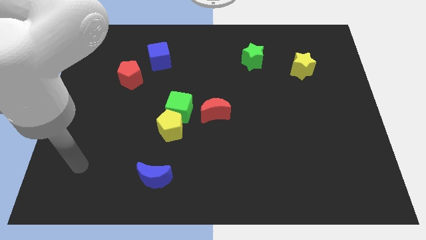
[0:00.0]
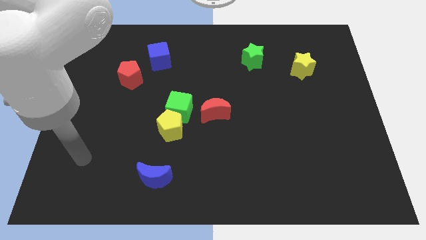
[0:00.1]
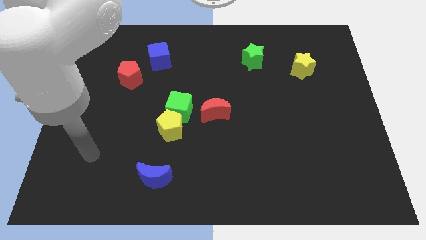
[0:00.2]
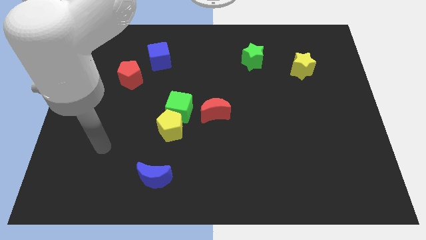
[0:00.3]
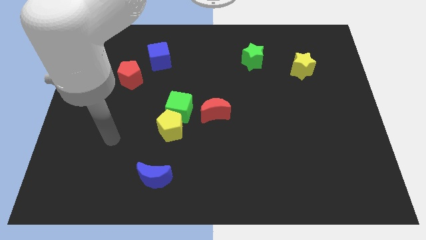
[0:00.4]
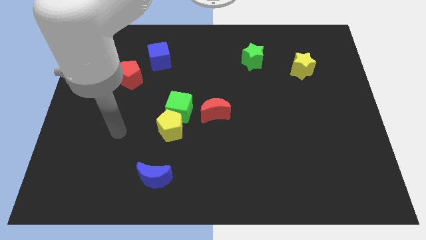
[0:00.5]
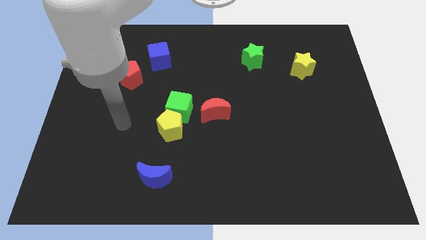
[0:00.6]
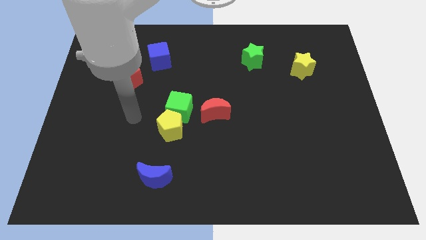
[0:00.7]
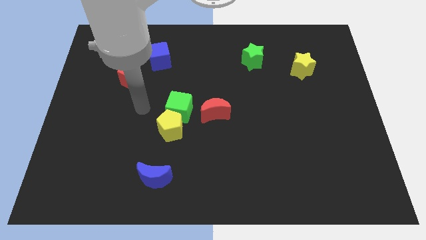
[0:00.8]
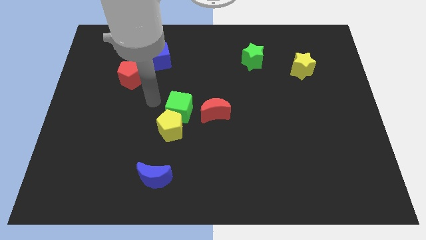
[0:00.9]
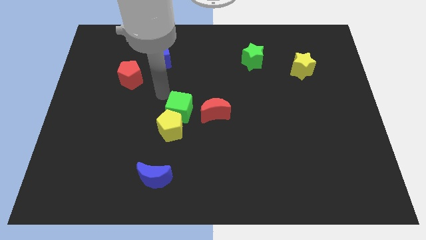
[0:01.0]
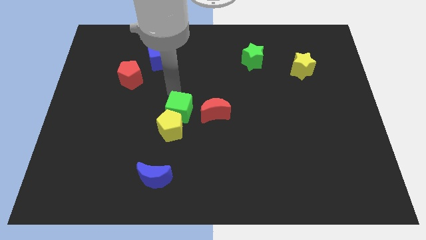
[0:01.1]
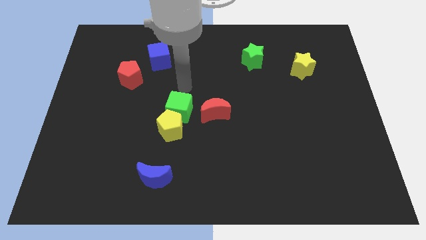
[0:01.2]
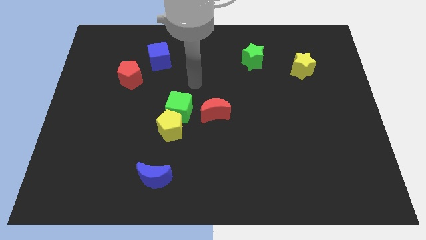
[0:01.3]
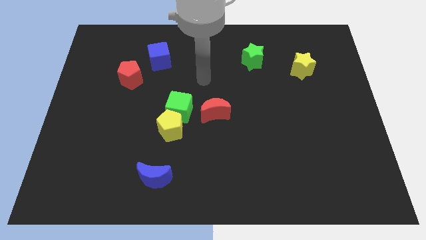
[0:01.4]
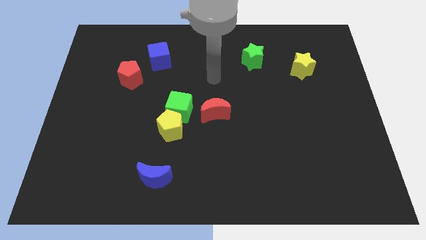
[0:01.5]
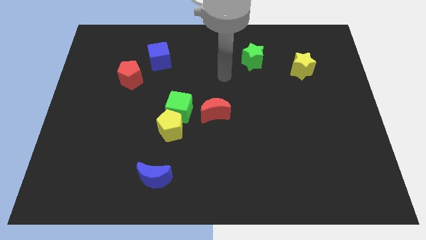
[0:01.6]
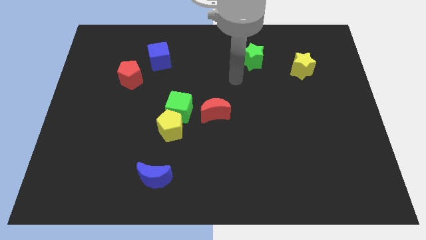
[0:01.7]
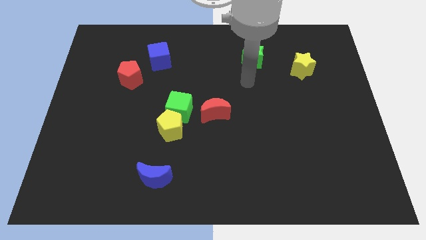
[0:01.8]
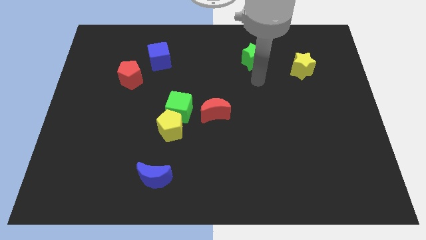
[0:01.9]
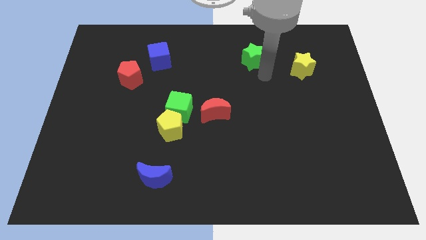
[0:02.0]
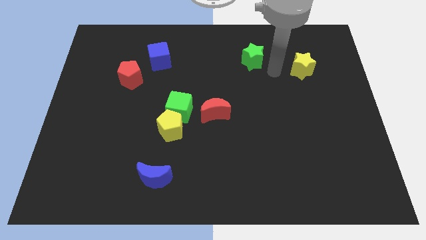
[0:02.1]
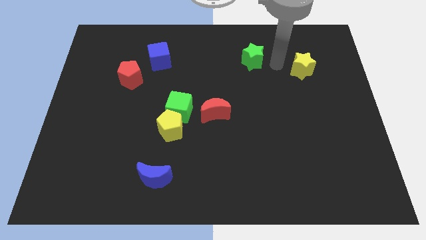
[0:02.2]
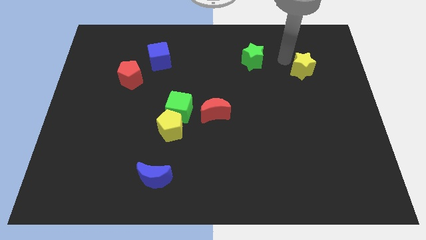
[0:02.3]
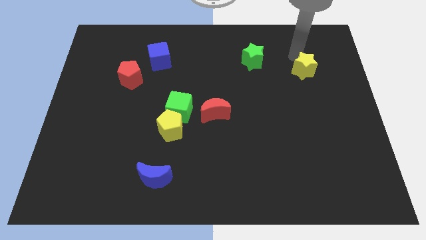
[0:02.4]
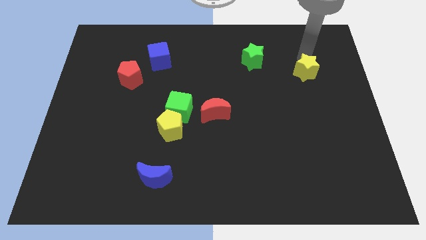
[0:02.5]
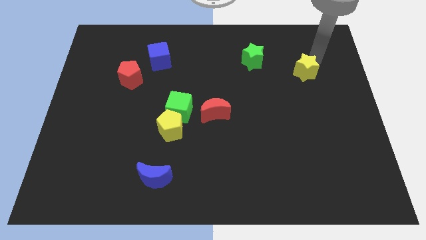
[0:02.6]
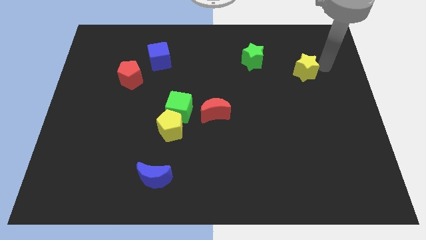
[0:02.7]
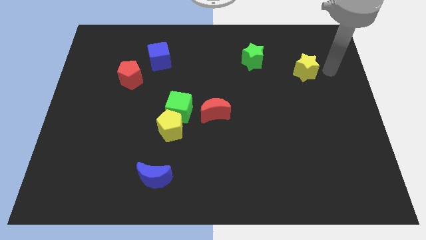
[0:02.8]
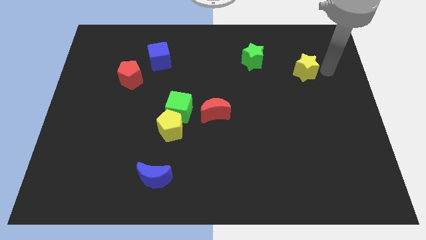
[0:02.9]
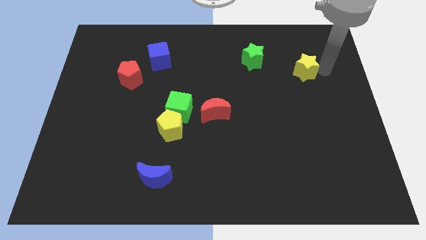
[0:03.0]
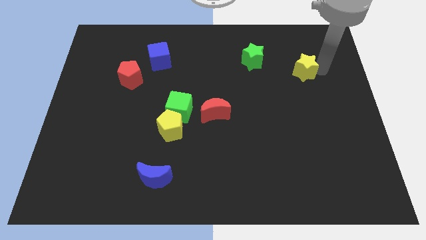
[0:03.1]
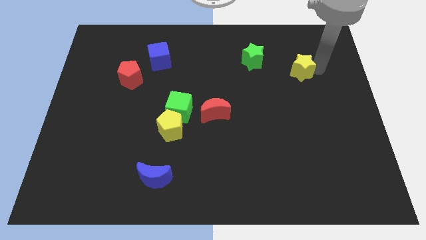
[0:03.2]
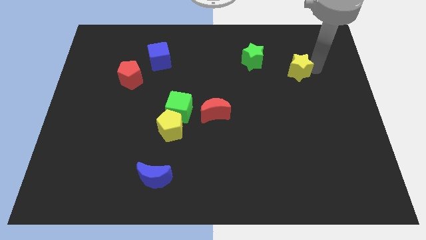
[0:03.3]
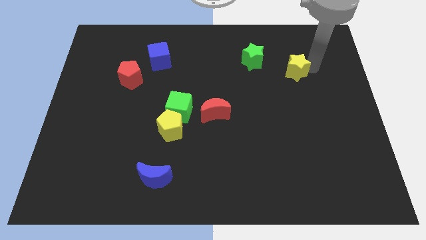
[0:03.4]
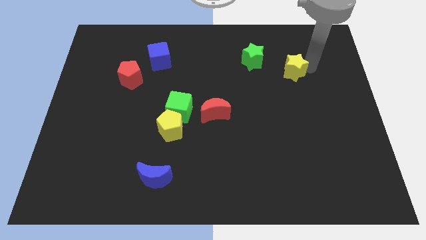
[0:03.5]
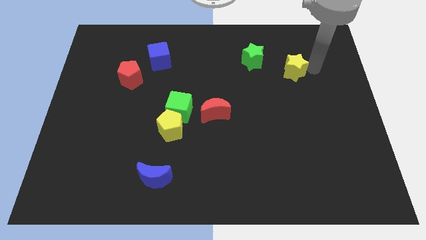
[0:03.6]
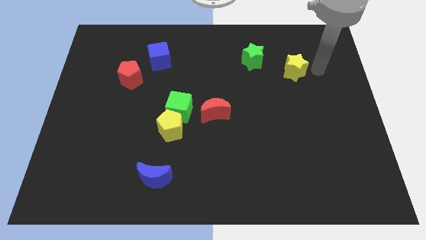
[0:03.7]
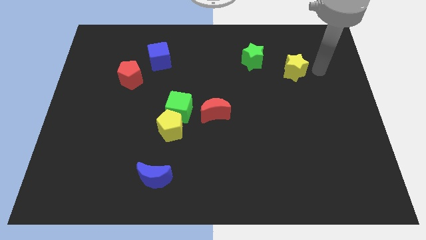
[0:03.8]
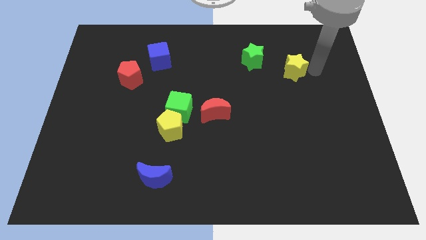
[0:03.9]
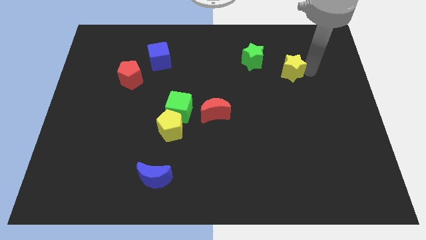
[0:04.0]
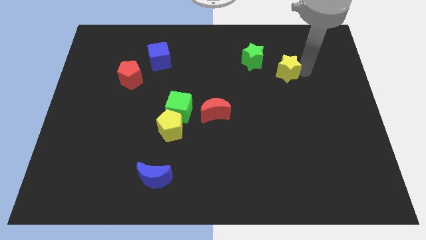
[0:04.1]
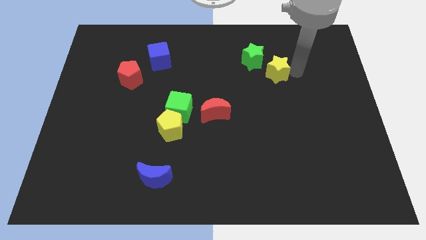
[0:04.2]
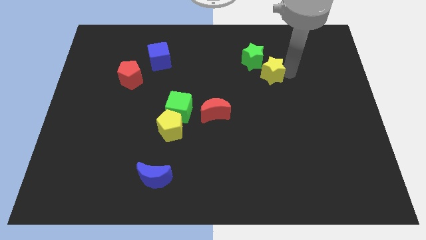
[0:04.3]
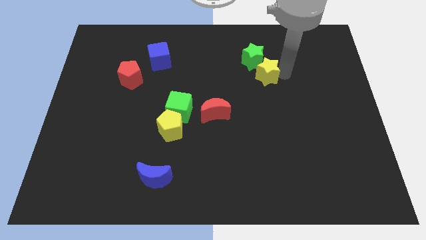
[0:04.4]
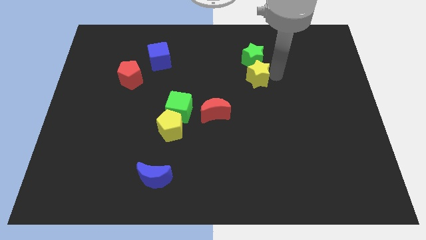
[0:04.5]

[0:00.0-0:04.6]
put the yellow star to the bottom left of the green star

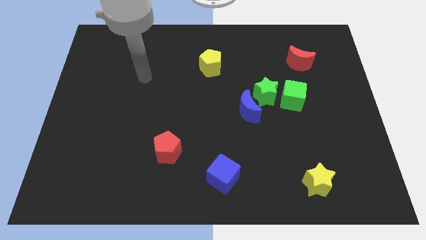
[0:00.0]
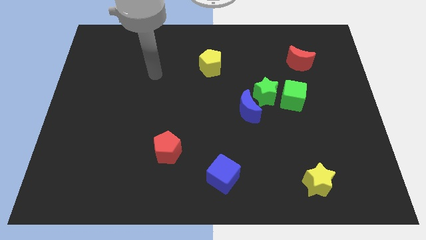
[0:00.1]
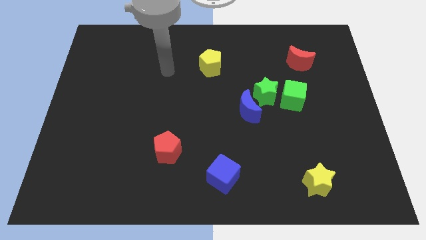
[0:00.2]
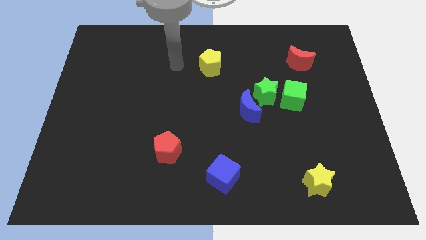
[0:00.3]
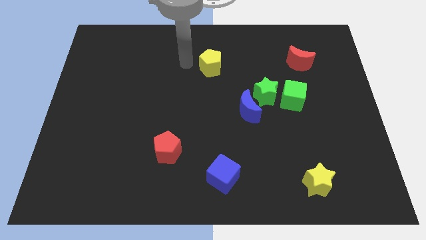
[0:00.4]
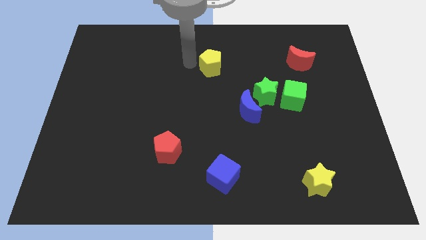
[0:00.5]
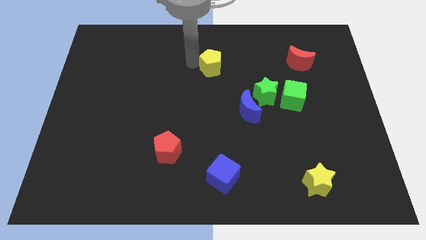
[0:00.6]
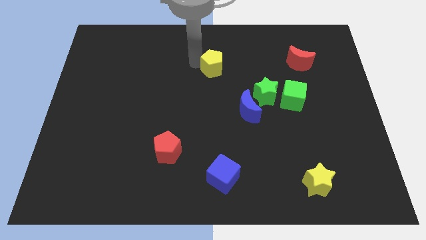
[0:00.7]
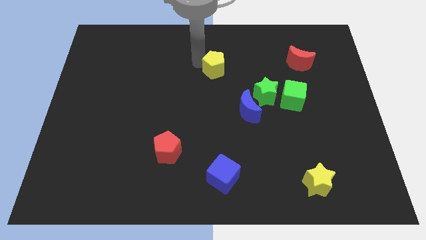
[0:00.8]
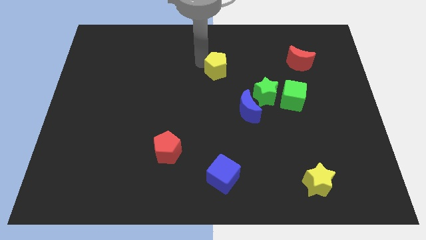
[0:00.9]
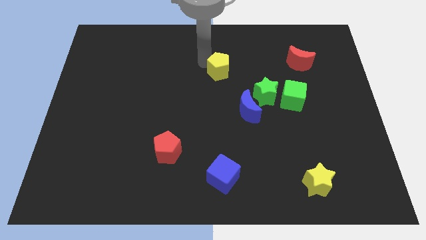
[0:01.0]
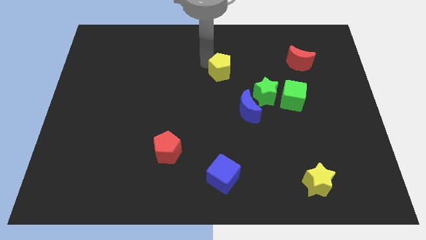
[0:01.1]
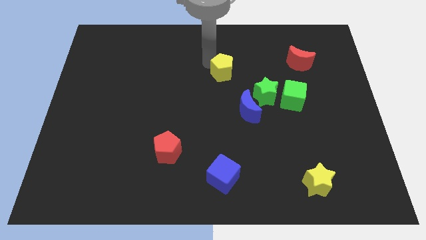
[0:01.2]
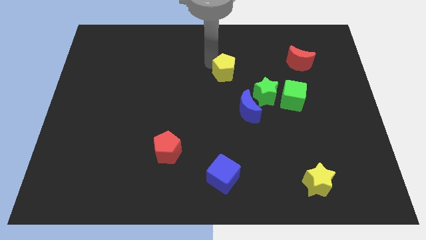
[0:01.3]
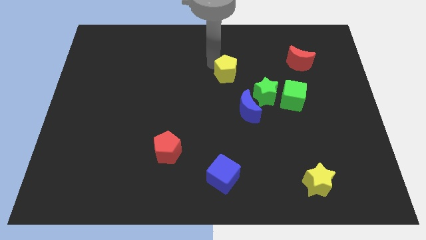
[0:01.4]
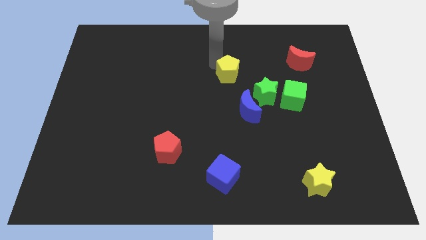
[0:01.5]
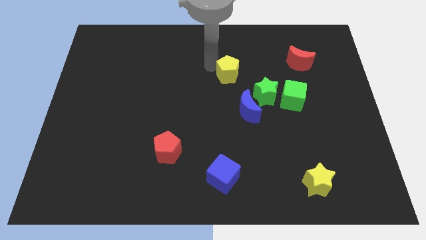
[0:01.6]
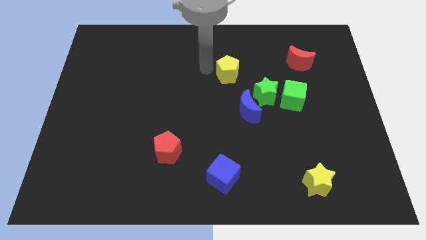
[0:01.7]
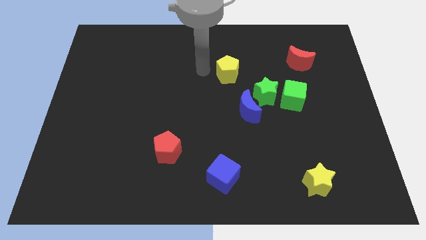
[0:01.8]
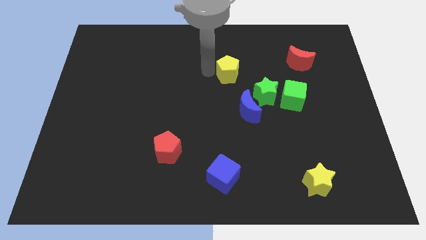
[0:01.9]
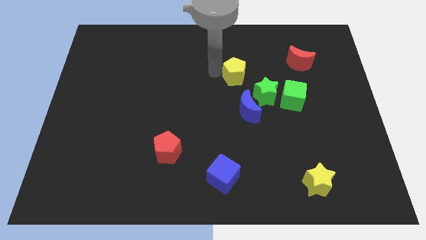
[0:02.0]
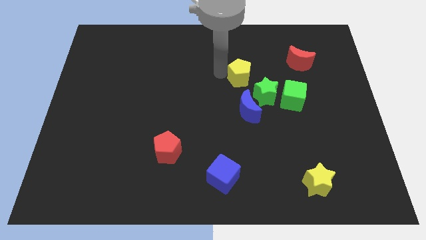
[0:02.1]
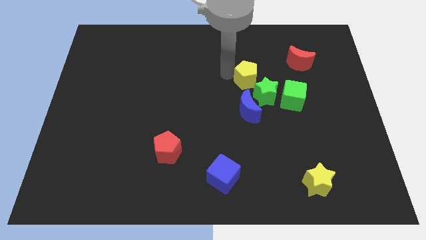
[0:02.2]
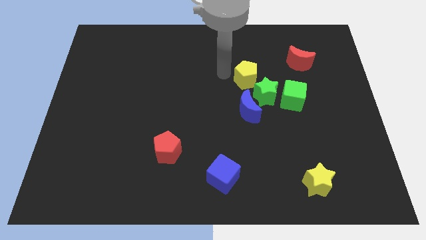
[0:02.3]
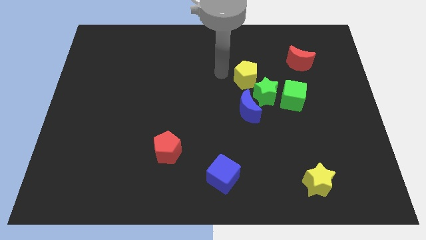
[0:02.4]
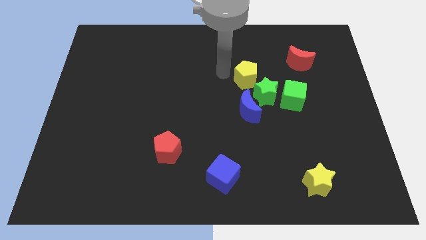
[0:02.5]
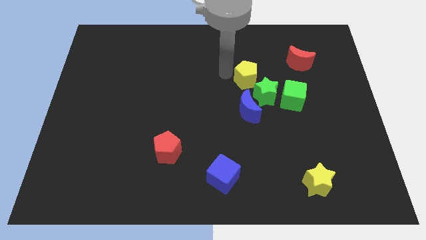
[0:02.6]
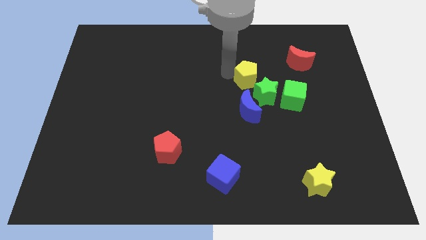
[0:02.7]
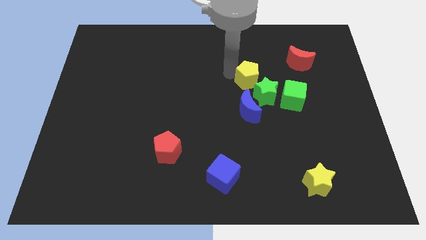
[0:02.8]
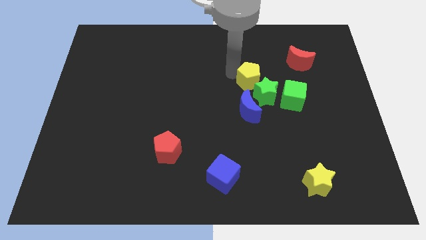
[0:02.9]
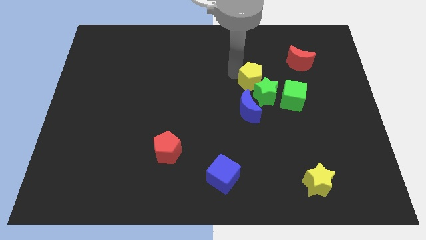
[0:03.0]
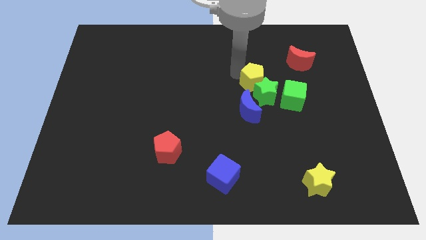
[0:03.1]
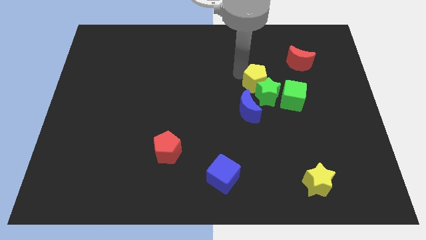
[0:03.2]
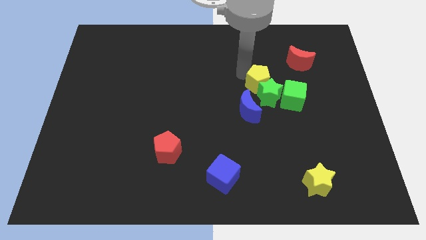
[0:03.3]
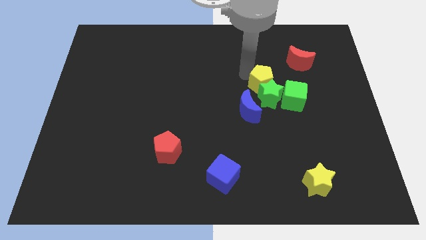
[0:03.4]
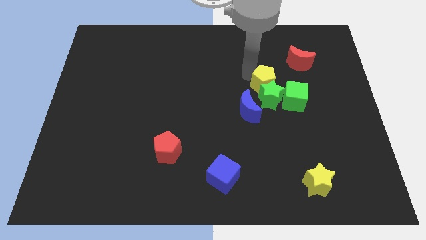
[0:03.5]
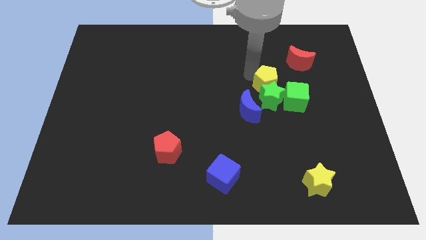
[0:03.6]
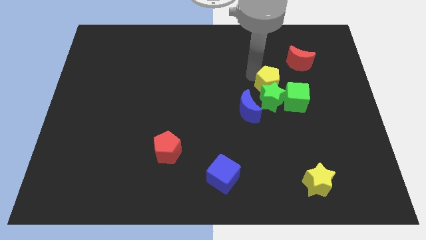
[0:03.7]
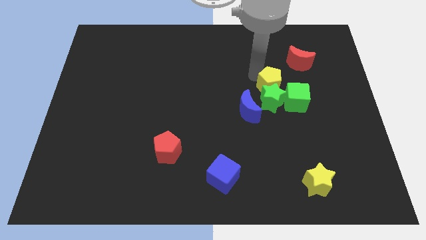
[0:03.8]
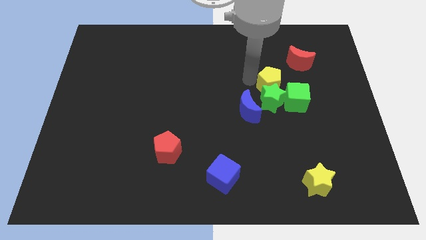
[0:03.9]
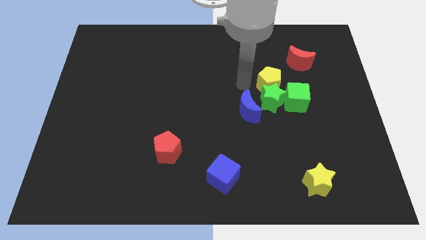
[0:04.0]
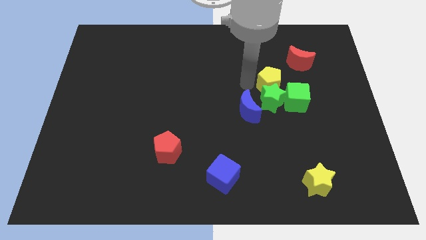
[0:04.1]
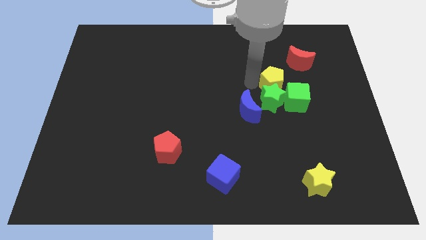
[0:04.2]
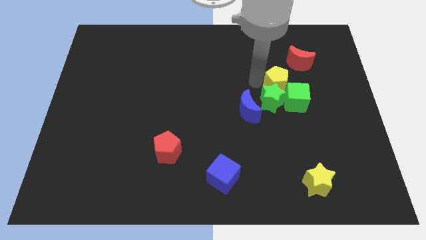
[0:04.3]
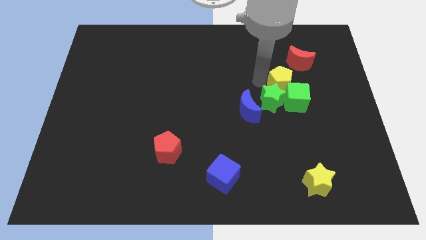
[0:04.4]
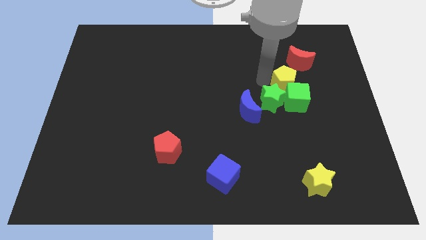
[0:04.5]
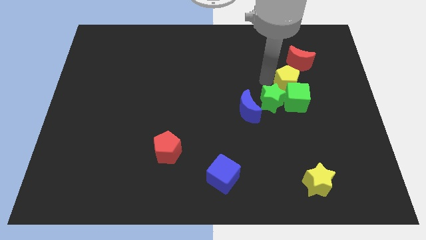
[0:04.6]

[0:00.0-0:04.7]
move the yellow pentagon to the top right side of the green cube
